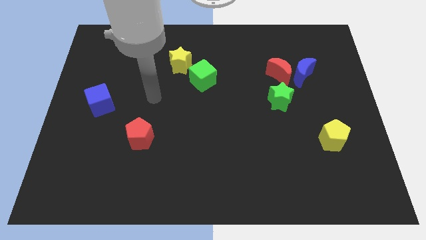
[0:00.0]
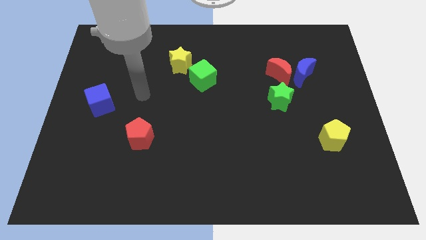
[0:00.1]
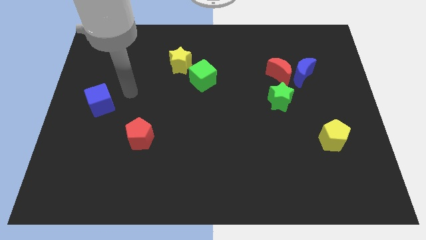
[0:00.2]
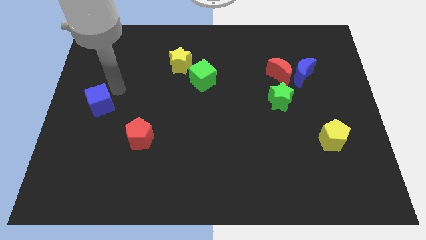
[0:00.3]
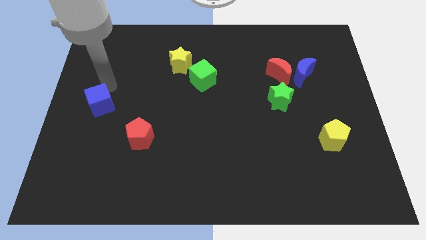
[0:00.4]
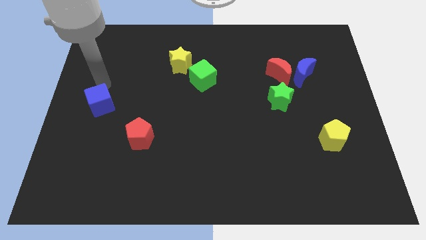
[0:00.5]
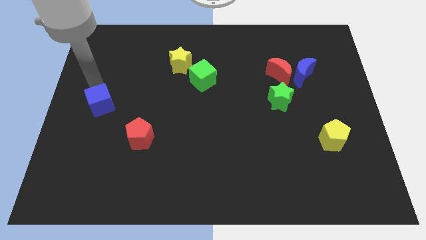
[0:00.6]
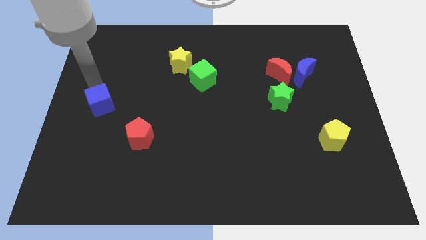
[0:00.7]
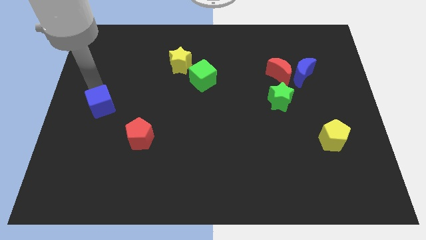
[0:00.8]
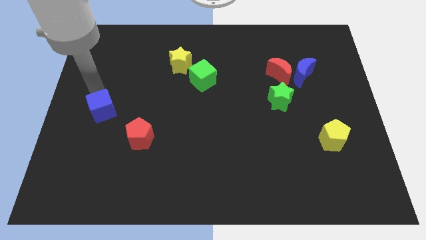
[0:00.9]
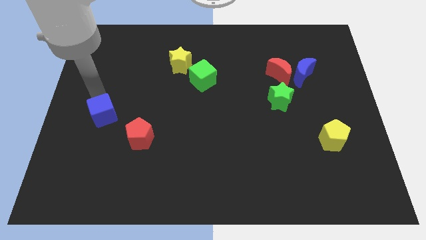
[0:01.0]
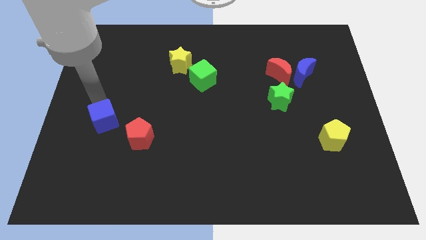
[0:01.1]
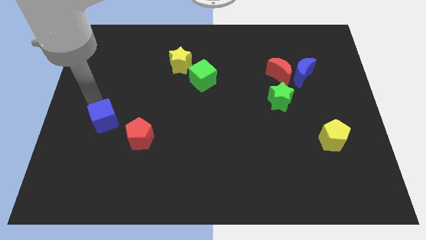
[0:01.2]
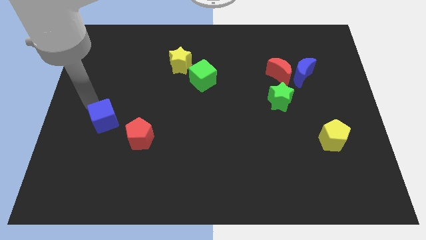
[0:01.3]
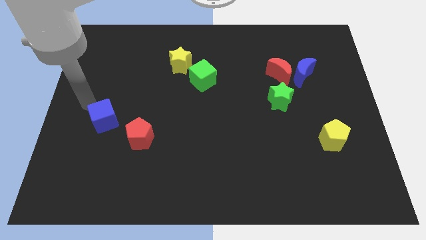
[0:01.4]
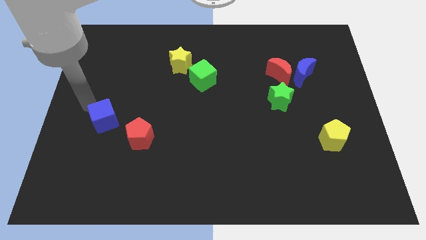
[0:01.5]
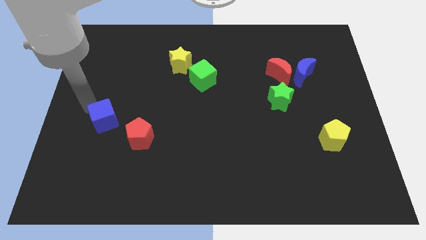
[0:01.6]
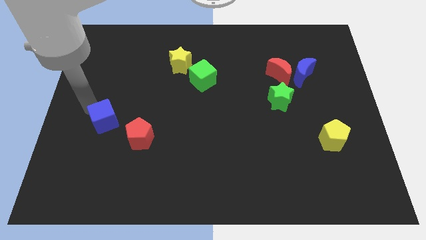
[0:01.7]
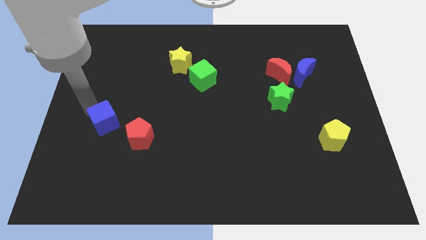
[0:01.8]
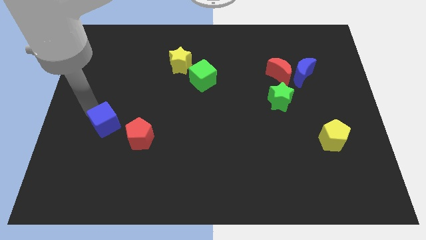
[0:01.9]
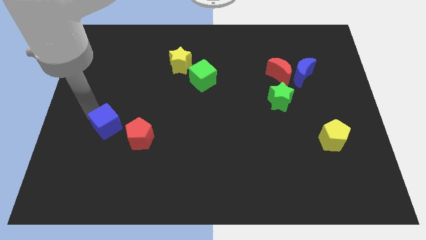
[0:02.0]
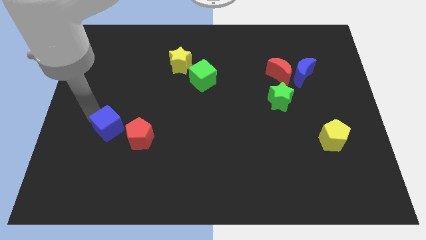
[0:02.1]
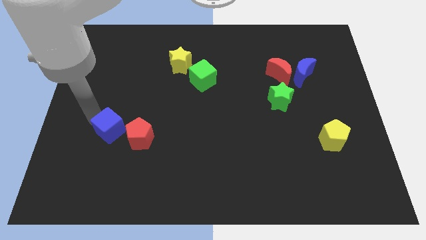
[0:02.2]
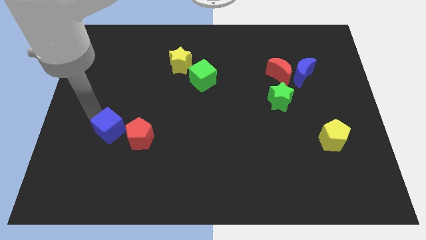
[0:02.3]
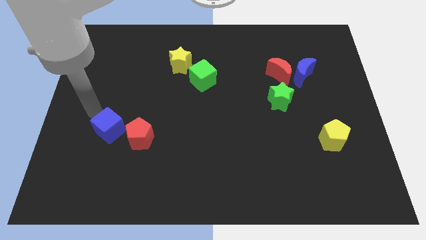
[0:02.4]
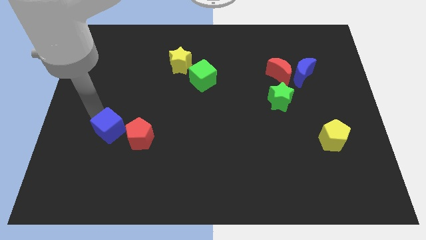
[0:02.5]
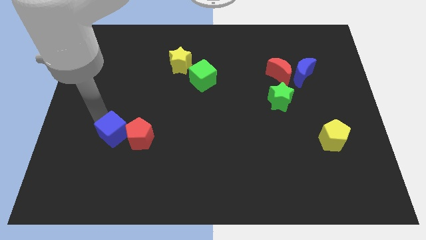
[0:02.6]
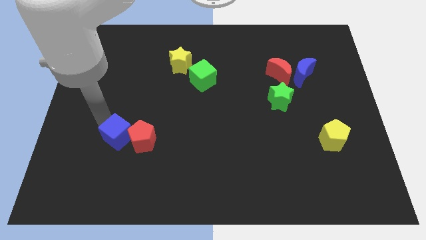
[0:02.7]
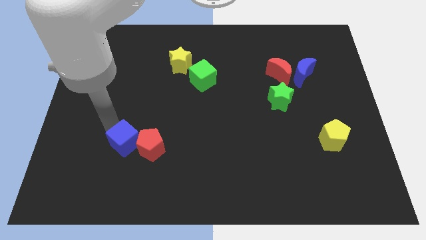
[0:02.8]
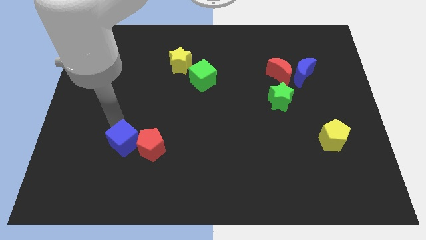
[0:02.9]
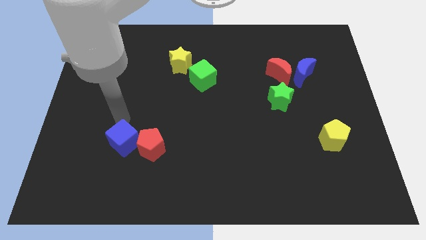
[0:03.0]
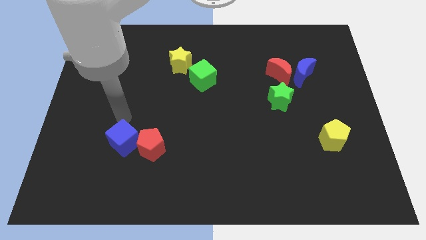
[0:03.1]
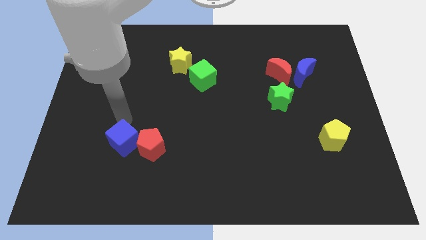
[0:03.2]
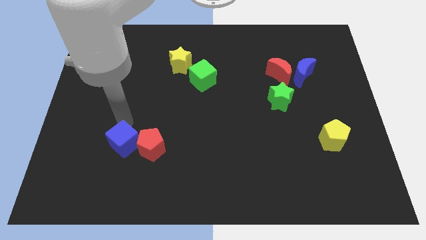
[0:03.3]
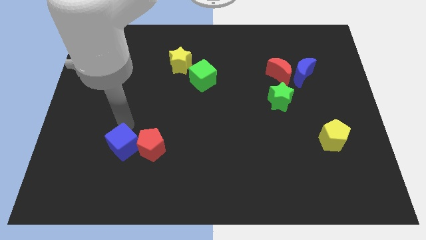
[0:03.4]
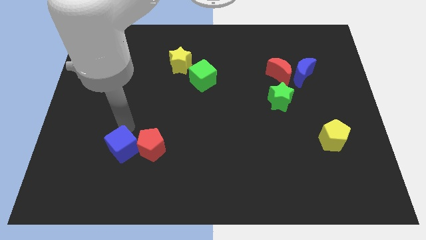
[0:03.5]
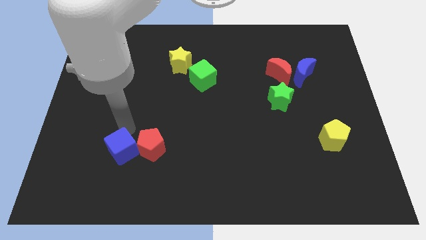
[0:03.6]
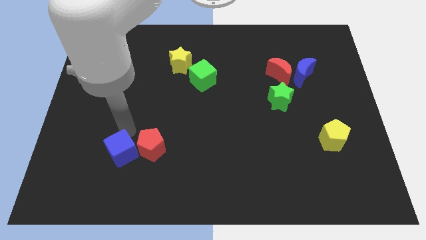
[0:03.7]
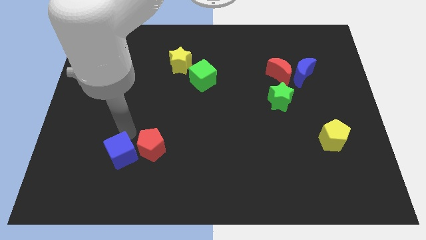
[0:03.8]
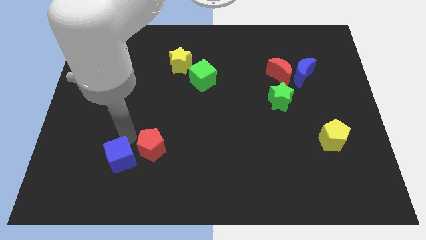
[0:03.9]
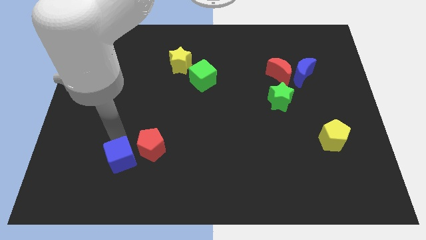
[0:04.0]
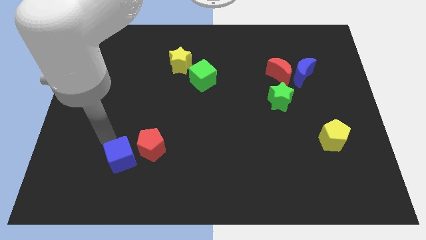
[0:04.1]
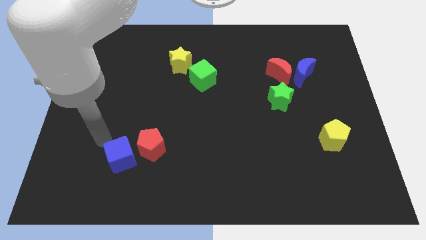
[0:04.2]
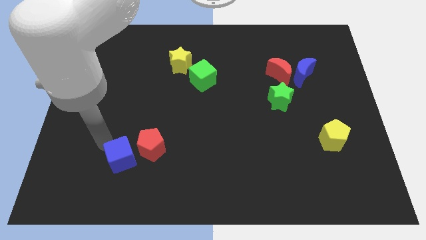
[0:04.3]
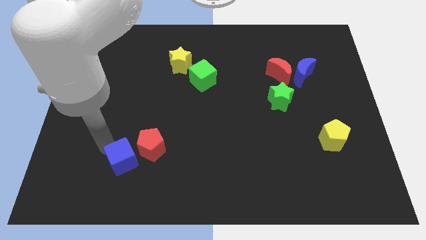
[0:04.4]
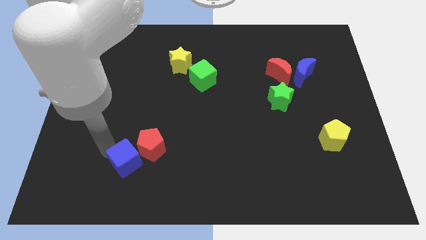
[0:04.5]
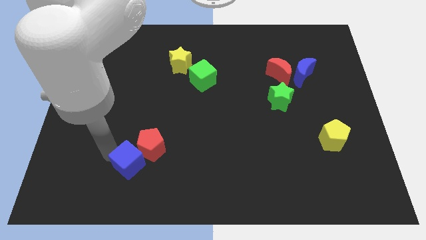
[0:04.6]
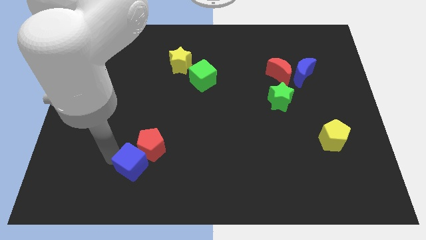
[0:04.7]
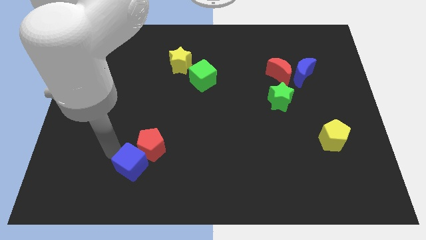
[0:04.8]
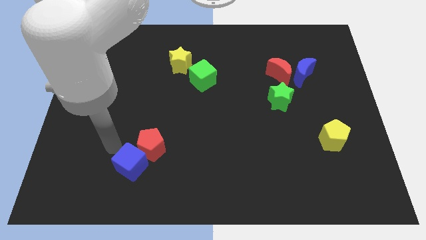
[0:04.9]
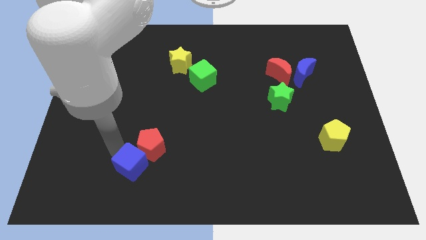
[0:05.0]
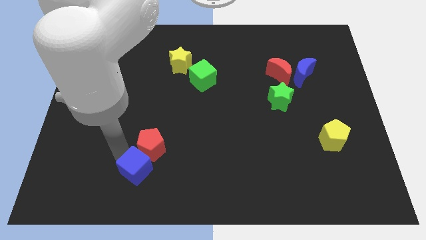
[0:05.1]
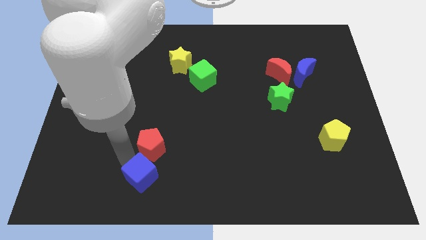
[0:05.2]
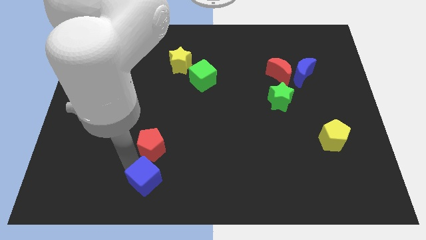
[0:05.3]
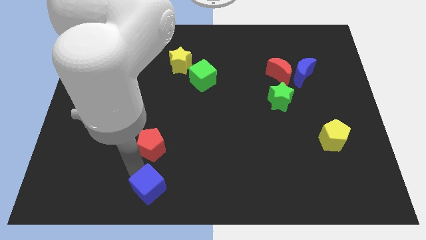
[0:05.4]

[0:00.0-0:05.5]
move the blue cube to the bottom side

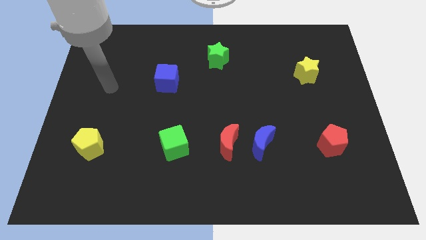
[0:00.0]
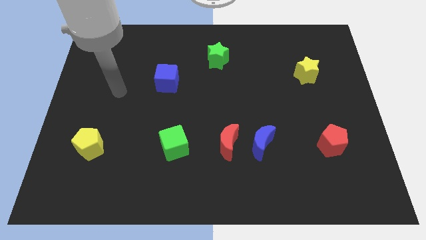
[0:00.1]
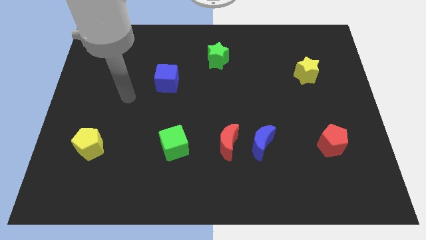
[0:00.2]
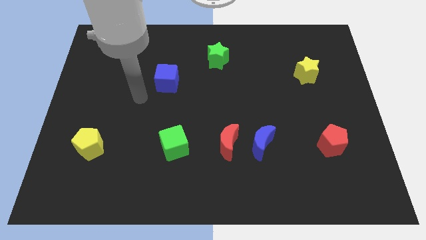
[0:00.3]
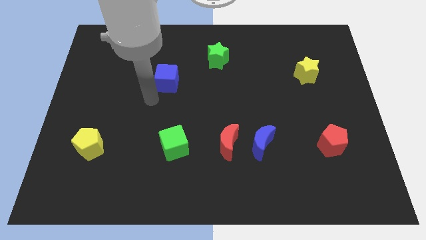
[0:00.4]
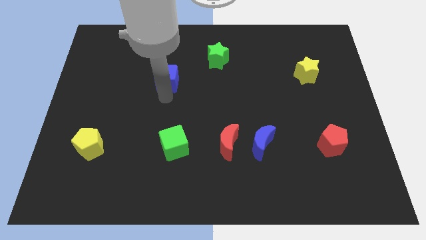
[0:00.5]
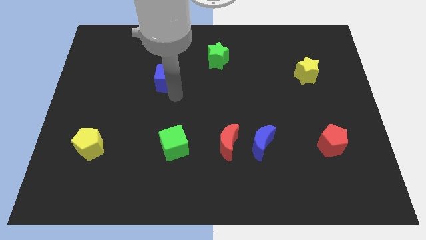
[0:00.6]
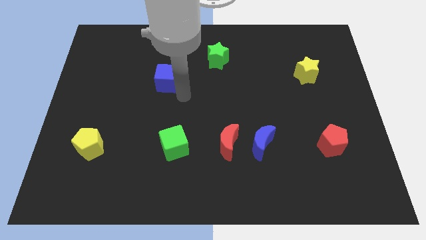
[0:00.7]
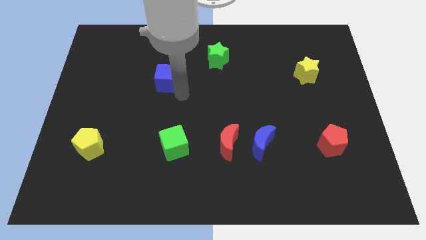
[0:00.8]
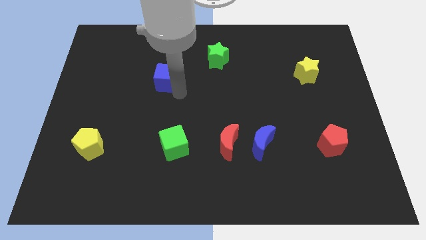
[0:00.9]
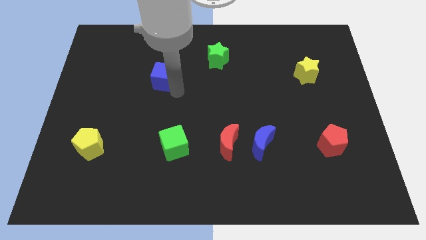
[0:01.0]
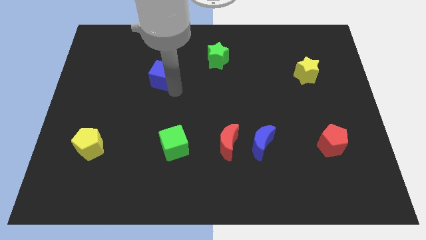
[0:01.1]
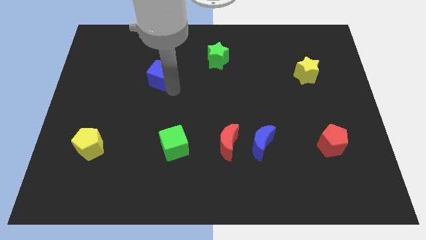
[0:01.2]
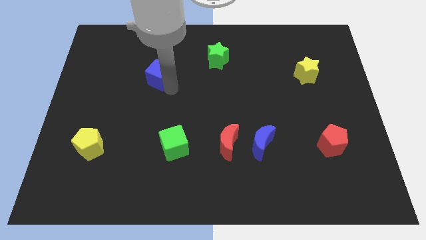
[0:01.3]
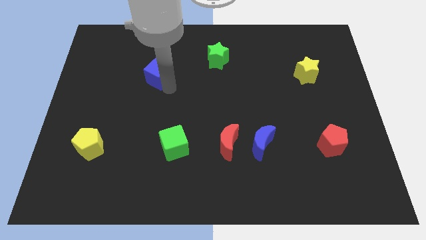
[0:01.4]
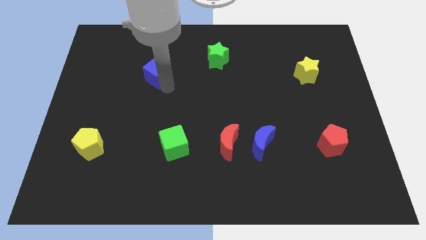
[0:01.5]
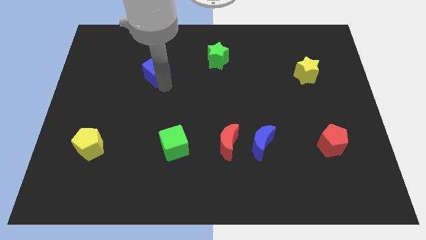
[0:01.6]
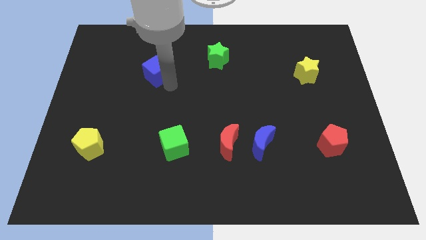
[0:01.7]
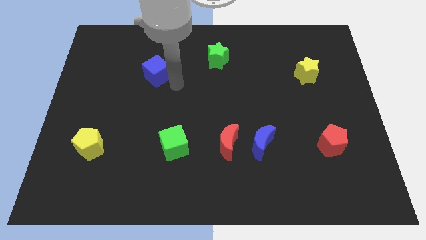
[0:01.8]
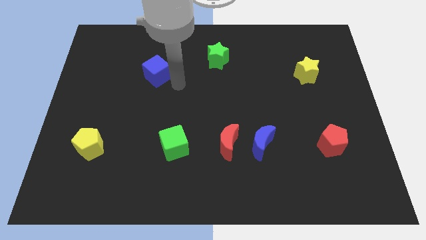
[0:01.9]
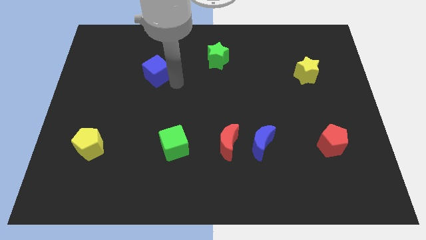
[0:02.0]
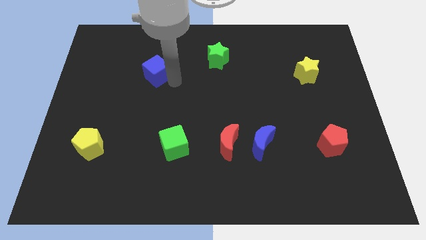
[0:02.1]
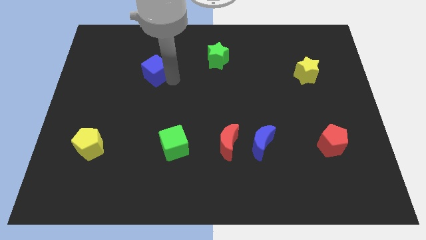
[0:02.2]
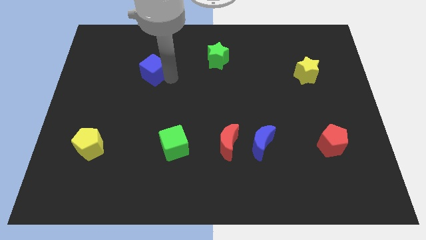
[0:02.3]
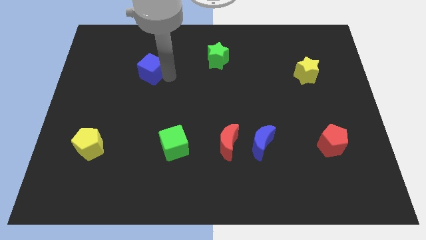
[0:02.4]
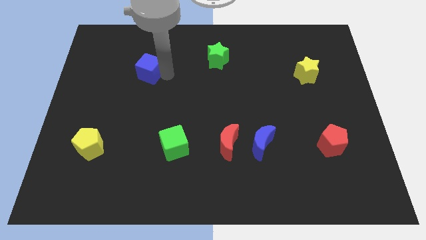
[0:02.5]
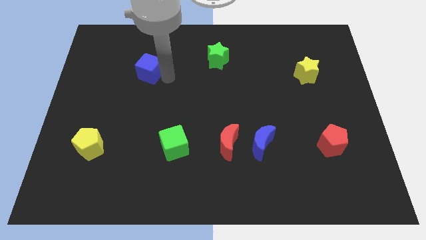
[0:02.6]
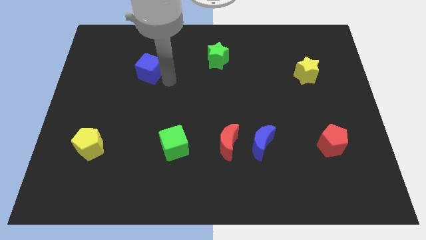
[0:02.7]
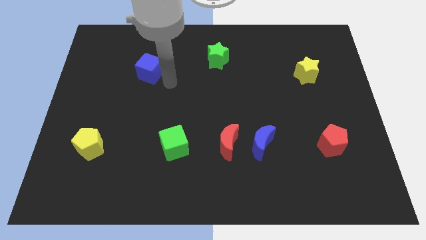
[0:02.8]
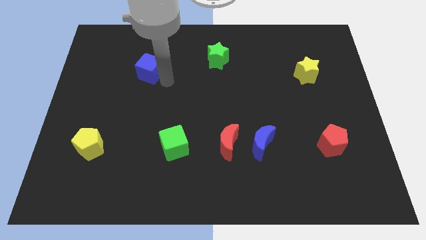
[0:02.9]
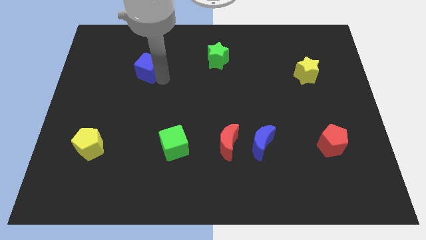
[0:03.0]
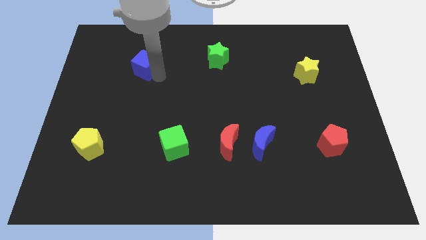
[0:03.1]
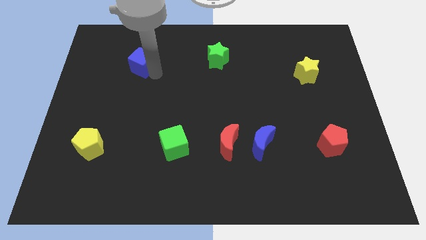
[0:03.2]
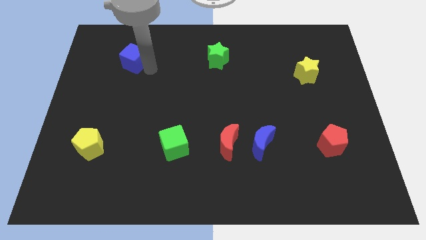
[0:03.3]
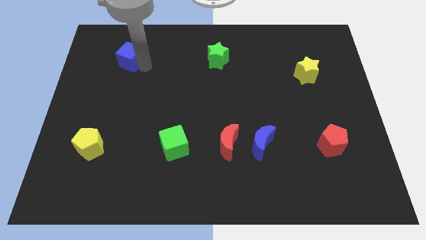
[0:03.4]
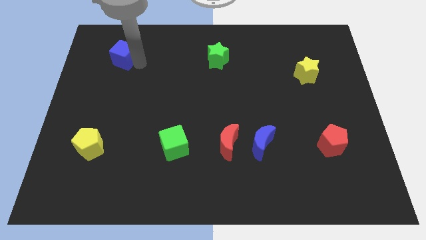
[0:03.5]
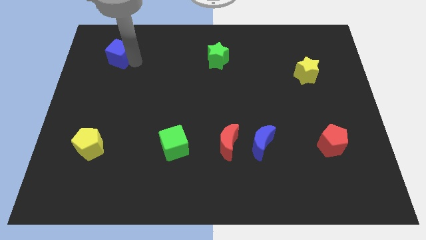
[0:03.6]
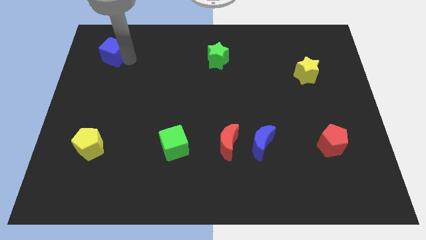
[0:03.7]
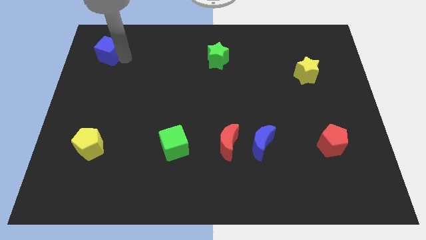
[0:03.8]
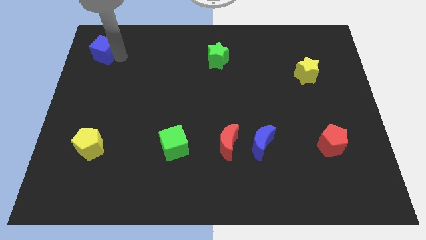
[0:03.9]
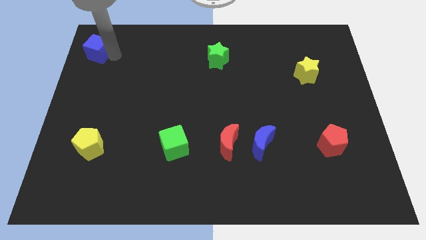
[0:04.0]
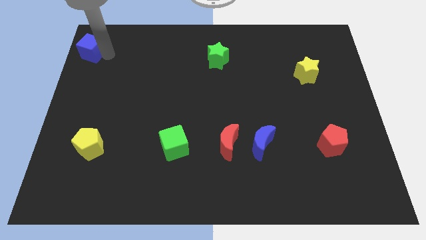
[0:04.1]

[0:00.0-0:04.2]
push the blue cube to the top left corner
